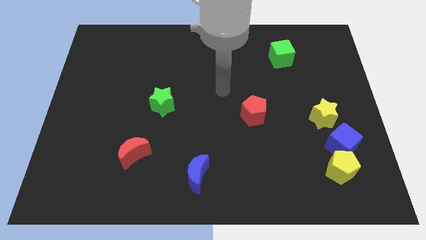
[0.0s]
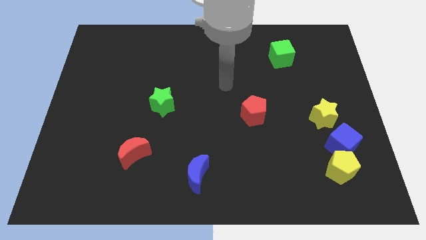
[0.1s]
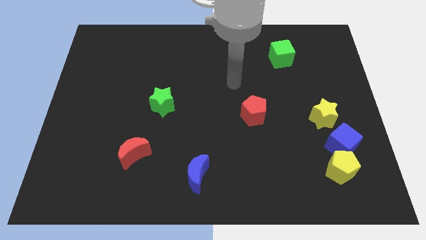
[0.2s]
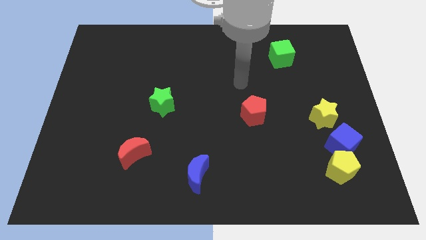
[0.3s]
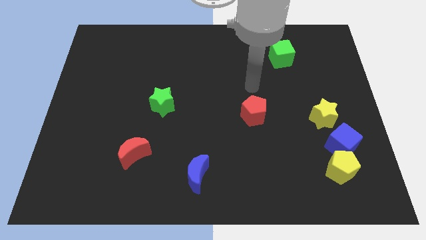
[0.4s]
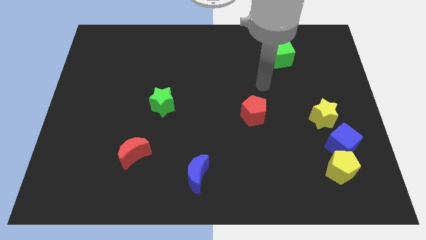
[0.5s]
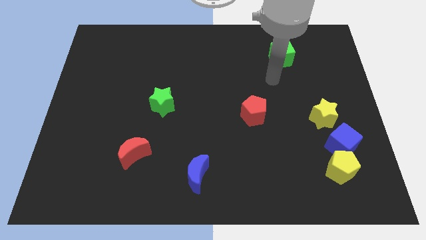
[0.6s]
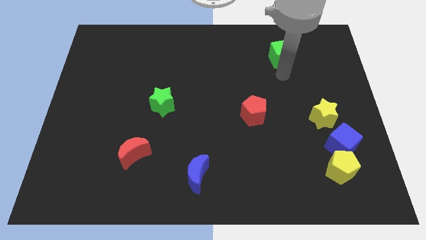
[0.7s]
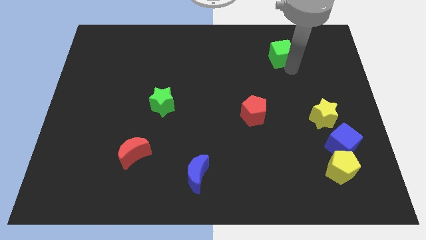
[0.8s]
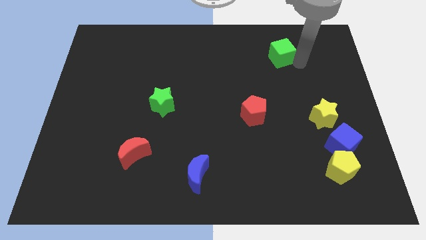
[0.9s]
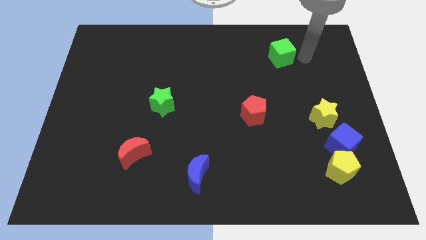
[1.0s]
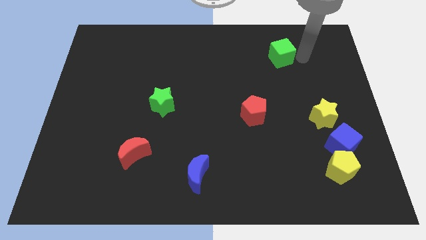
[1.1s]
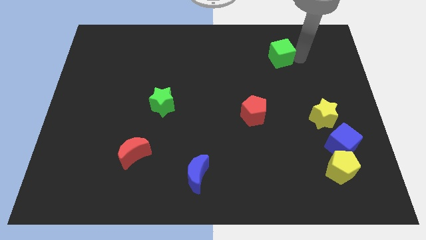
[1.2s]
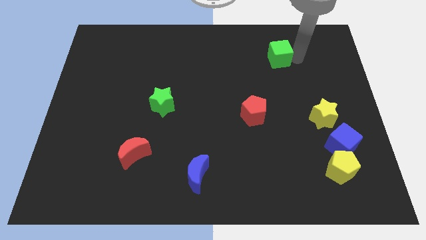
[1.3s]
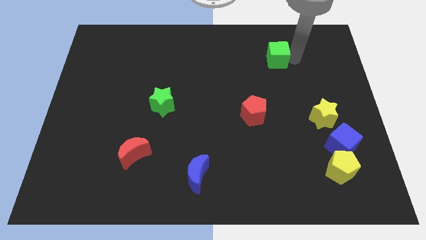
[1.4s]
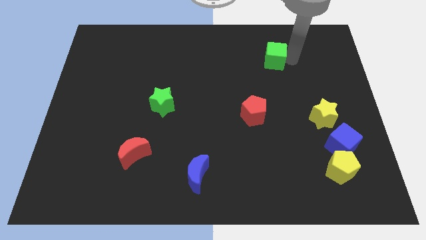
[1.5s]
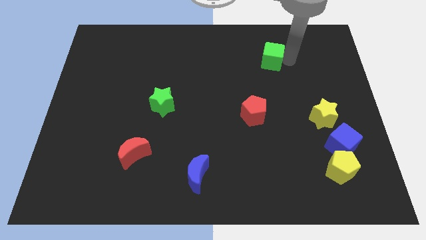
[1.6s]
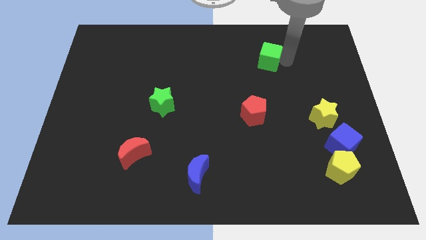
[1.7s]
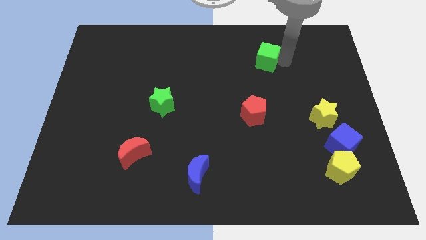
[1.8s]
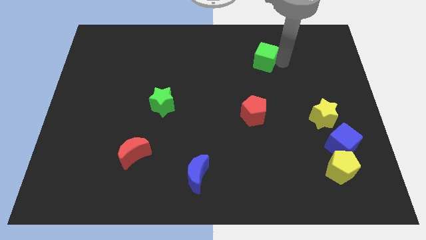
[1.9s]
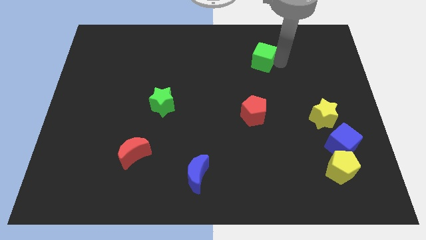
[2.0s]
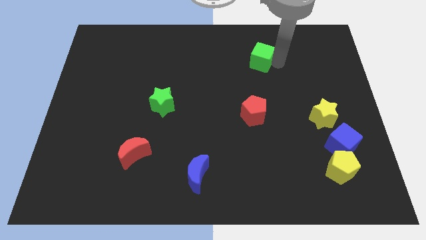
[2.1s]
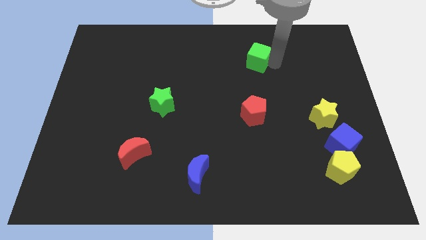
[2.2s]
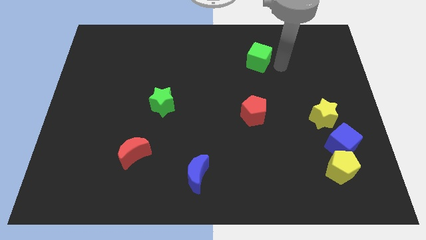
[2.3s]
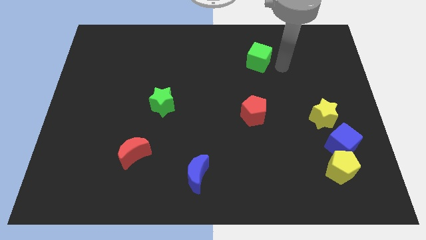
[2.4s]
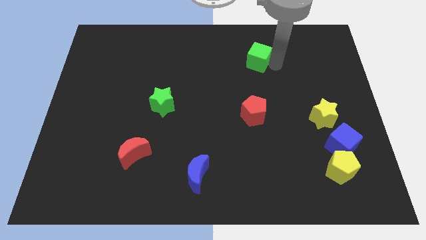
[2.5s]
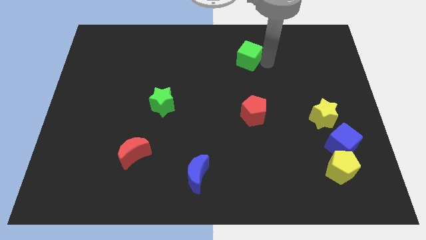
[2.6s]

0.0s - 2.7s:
slightly push the green cube left

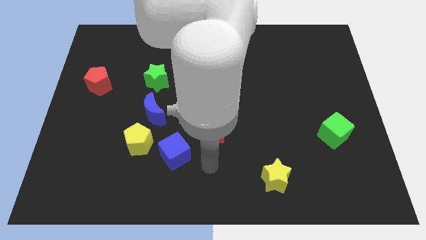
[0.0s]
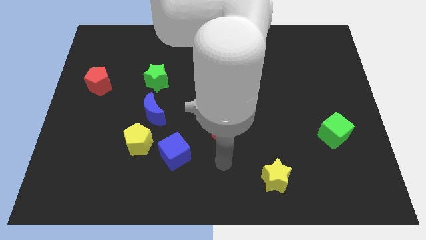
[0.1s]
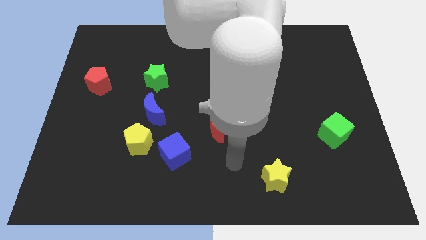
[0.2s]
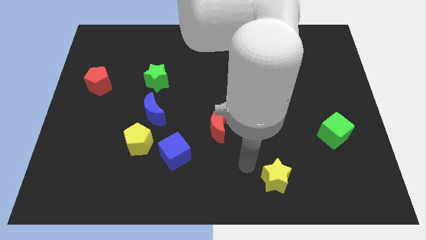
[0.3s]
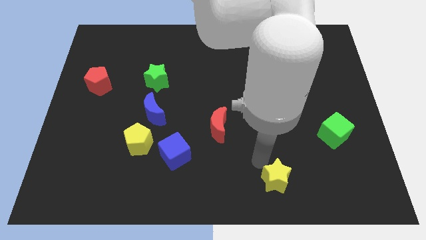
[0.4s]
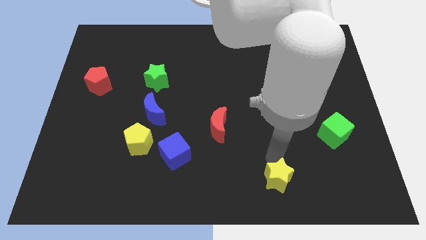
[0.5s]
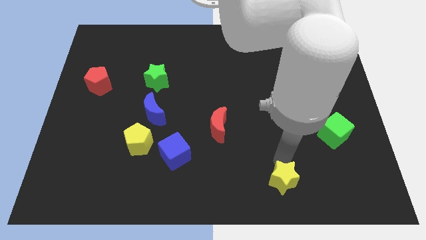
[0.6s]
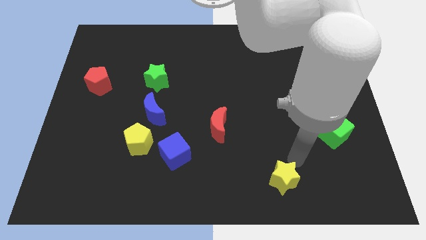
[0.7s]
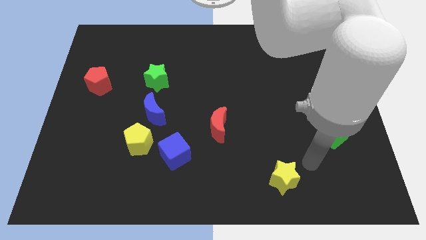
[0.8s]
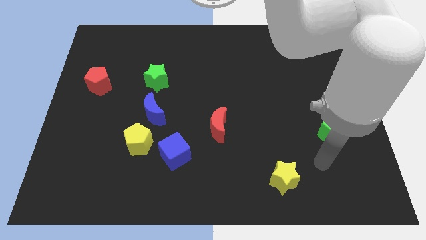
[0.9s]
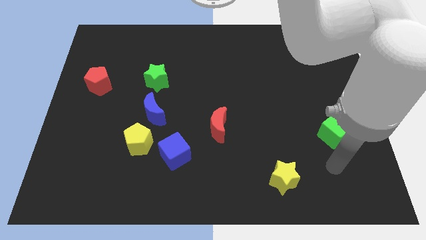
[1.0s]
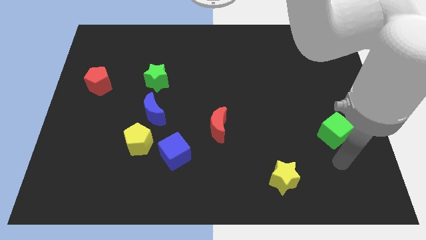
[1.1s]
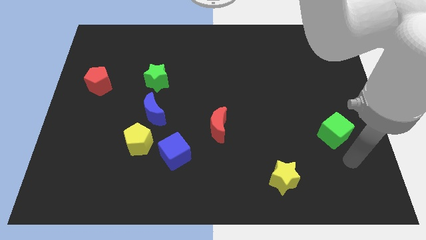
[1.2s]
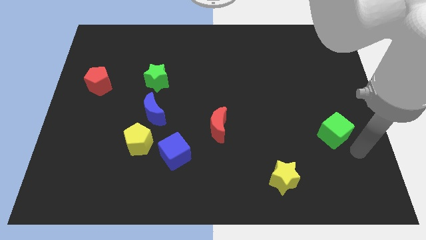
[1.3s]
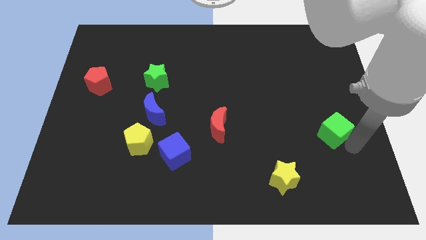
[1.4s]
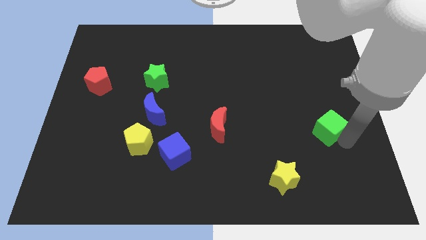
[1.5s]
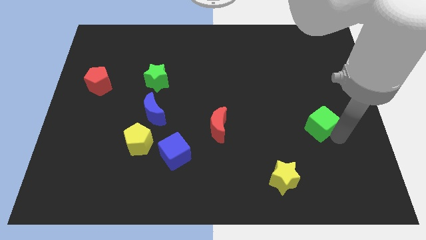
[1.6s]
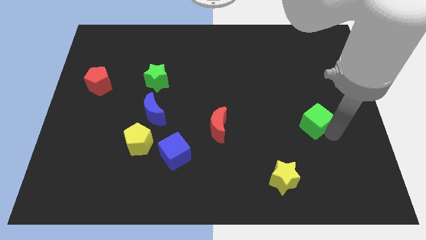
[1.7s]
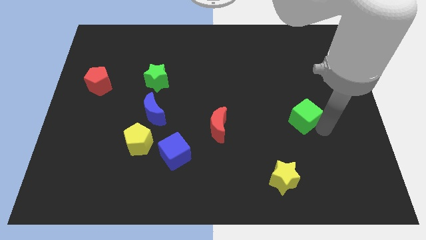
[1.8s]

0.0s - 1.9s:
slightly move the green cube diagonally up and to the left

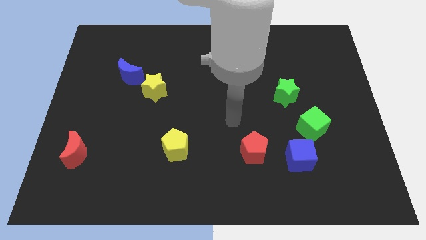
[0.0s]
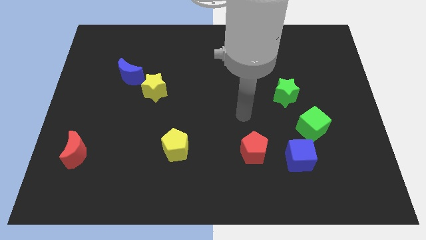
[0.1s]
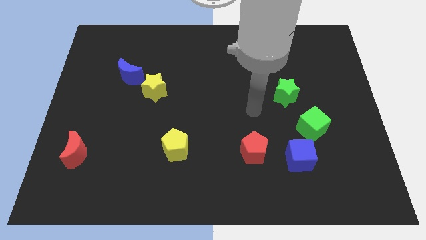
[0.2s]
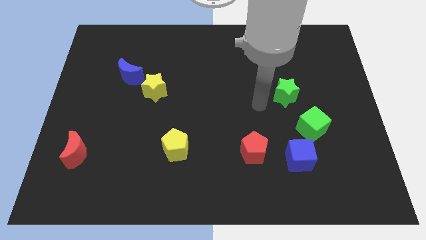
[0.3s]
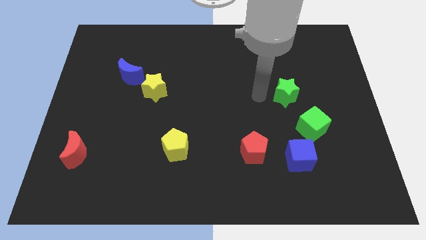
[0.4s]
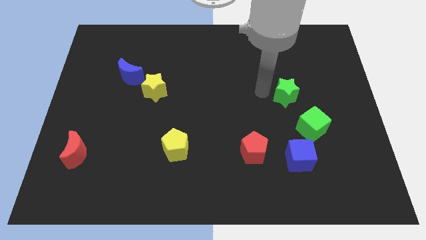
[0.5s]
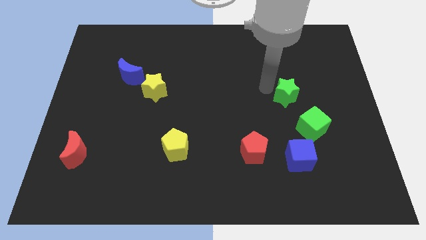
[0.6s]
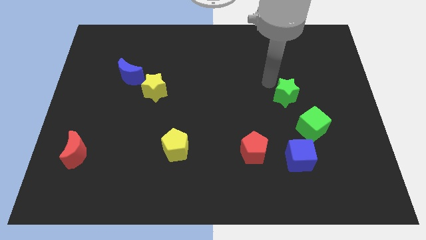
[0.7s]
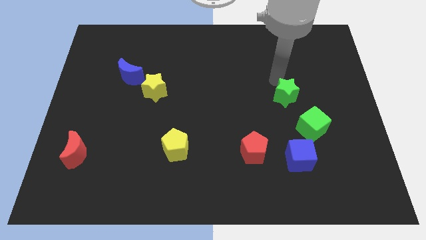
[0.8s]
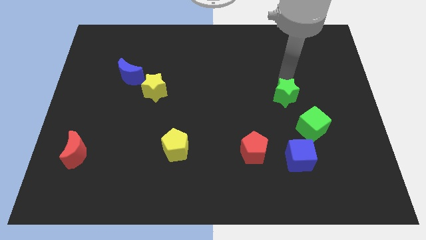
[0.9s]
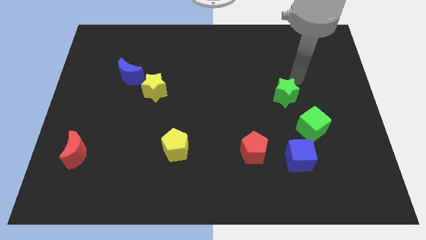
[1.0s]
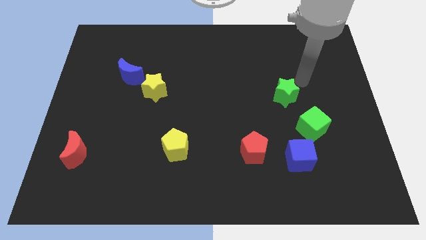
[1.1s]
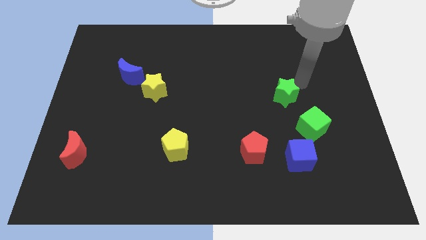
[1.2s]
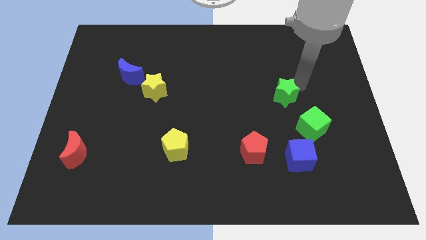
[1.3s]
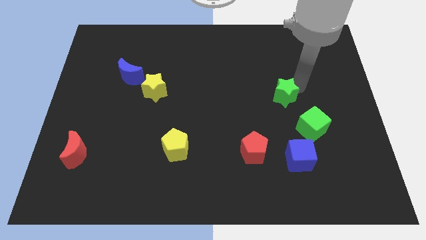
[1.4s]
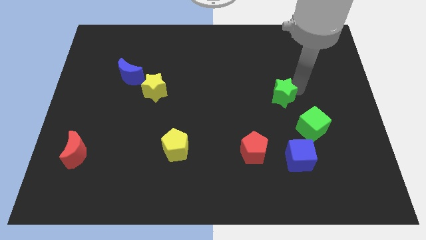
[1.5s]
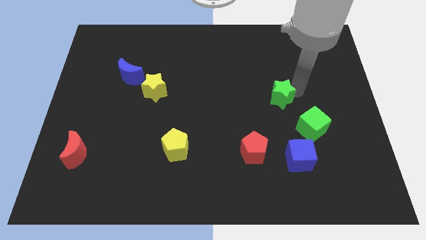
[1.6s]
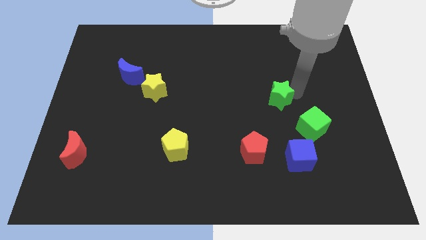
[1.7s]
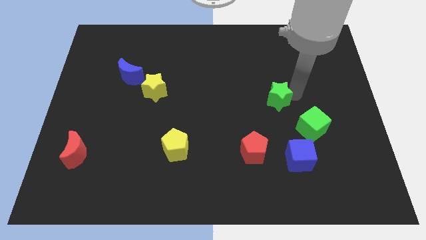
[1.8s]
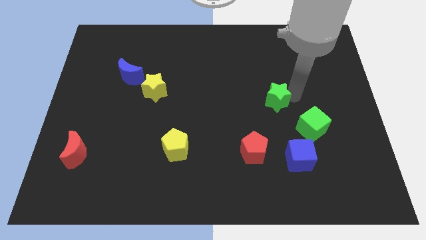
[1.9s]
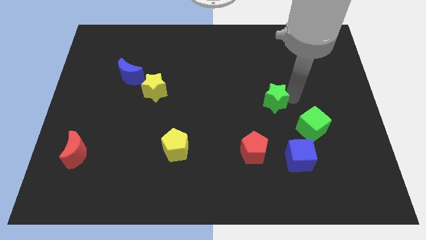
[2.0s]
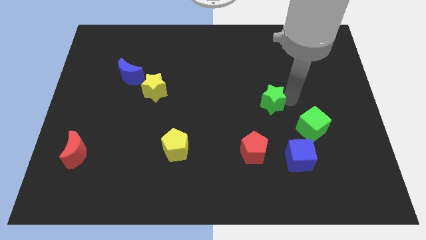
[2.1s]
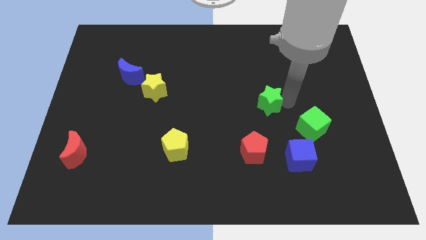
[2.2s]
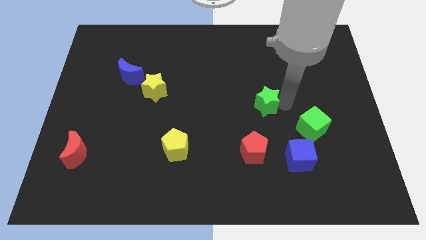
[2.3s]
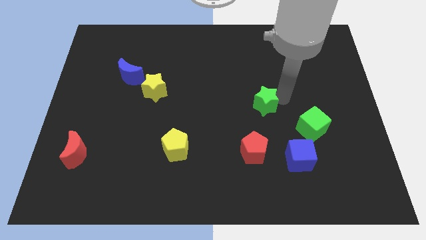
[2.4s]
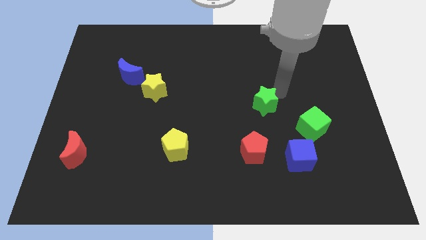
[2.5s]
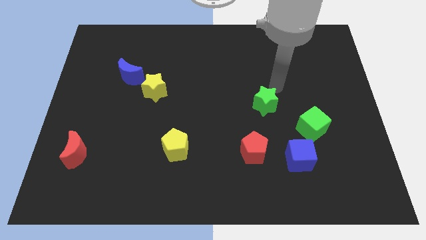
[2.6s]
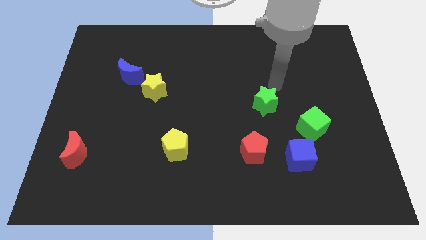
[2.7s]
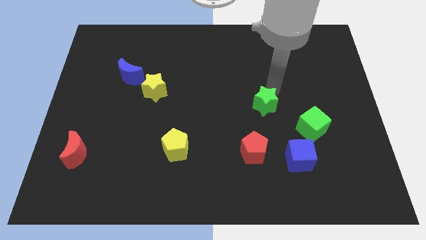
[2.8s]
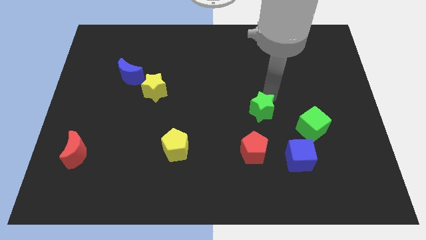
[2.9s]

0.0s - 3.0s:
move the green star a little diagonally downwards and to the left

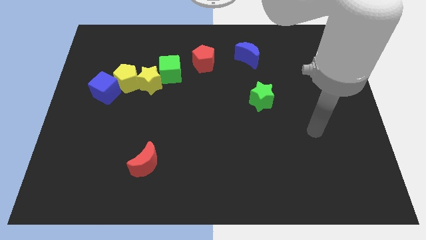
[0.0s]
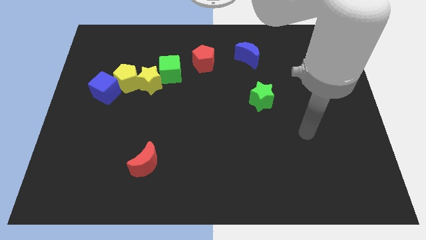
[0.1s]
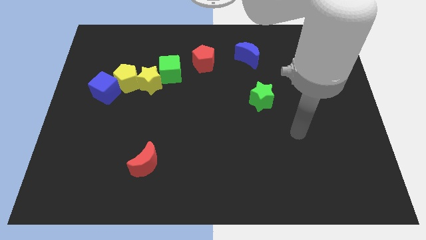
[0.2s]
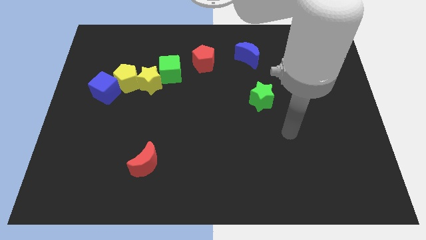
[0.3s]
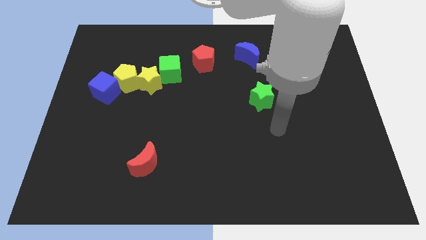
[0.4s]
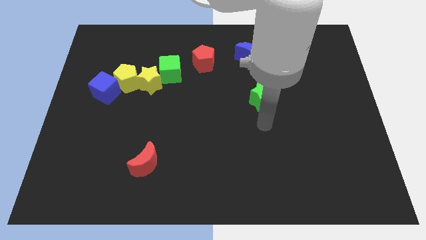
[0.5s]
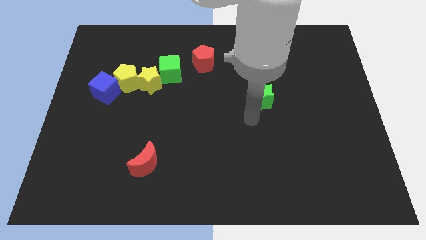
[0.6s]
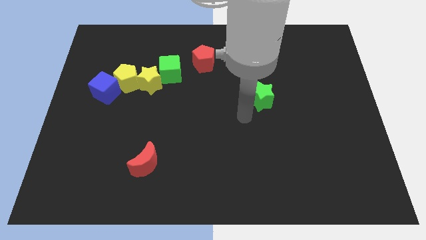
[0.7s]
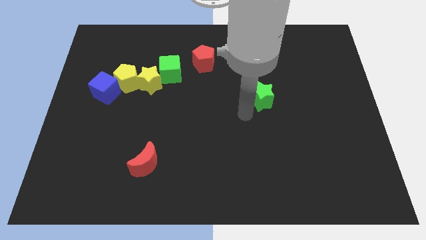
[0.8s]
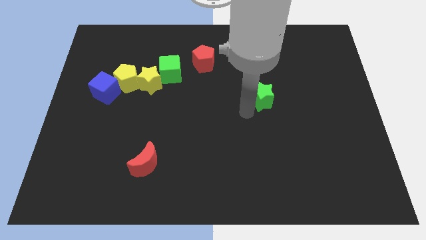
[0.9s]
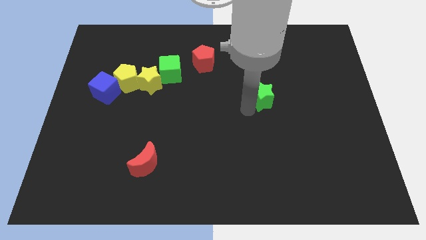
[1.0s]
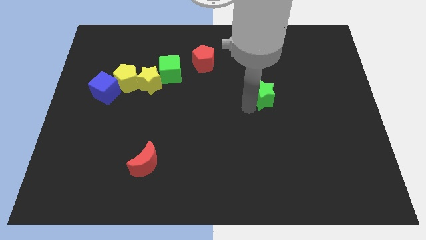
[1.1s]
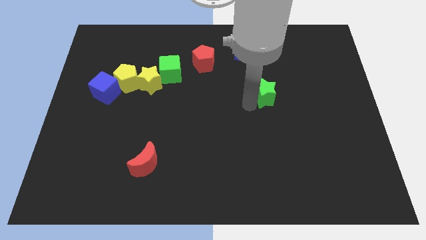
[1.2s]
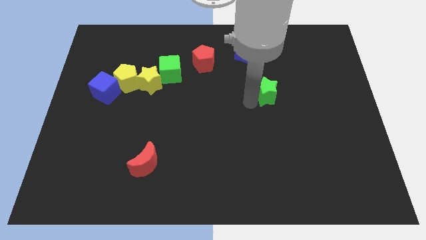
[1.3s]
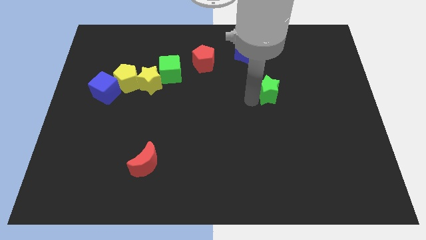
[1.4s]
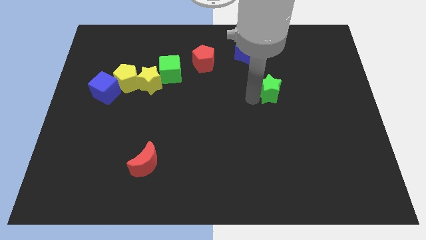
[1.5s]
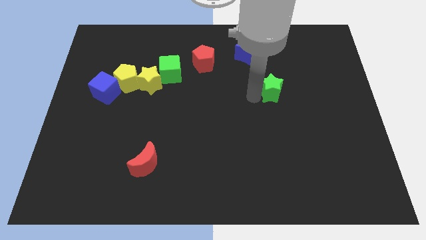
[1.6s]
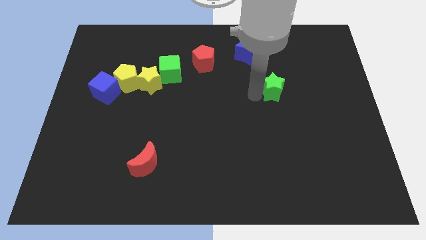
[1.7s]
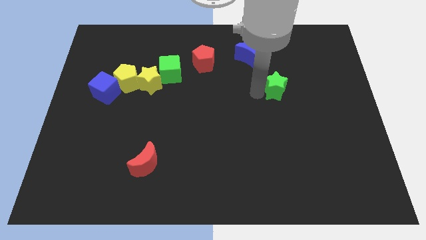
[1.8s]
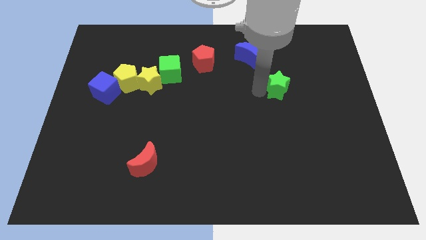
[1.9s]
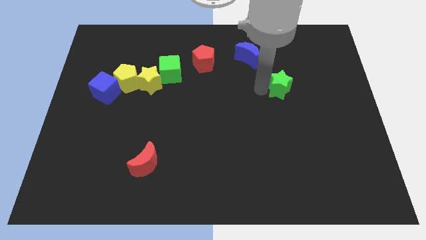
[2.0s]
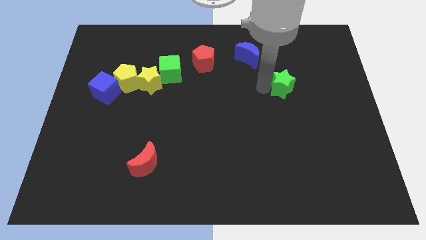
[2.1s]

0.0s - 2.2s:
slightly push the green star up and to the right
